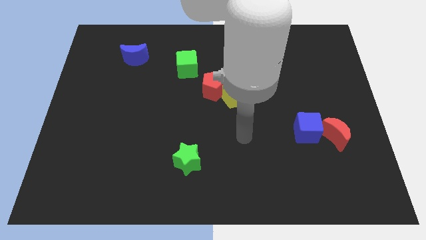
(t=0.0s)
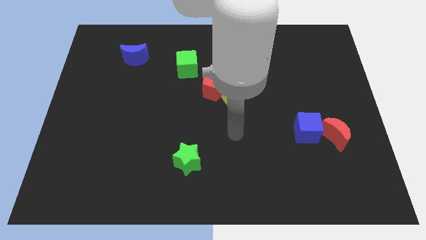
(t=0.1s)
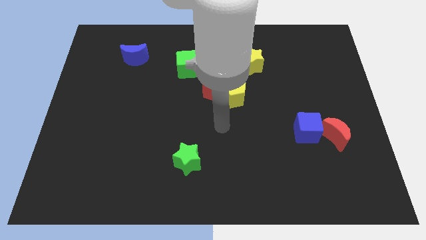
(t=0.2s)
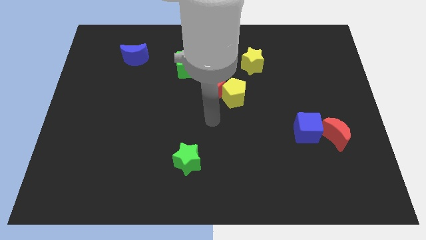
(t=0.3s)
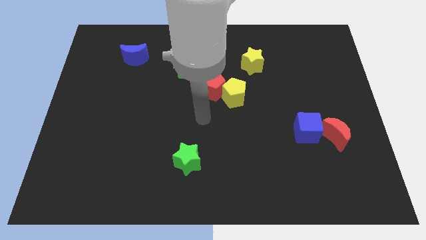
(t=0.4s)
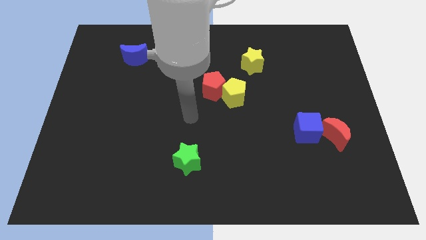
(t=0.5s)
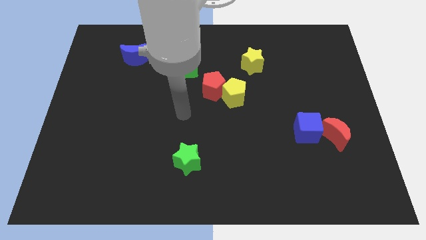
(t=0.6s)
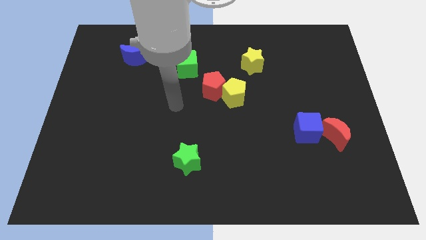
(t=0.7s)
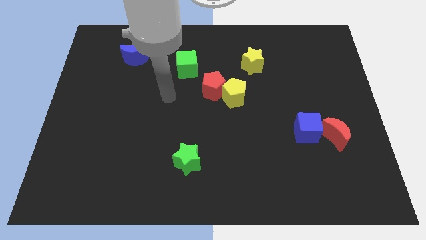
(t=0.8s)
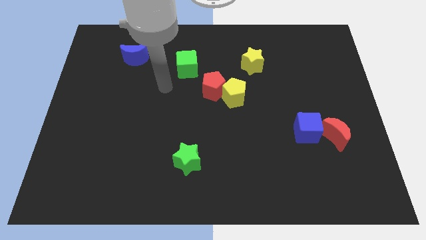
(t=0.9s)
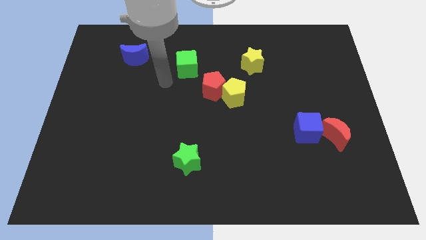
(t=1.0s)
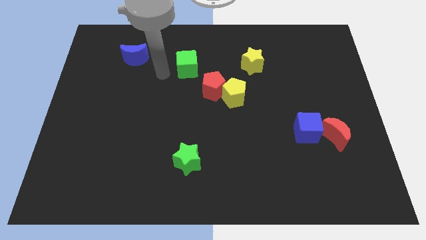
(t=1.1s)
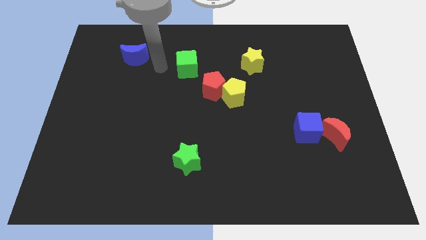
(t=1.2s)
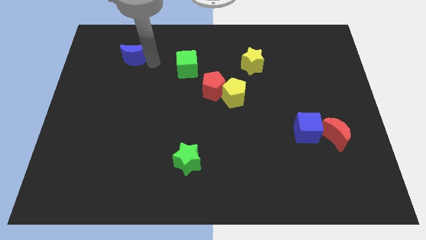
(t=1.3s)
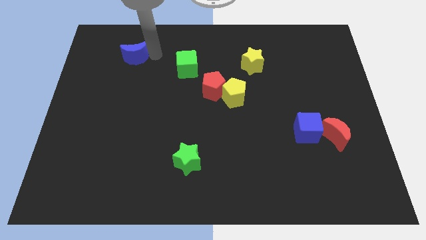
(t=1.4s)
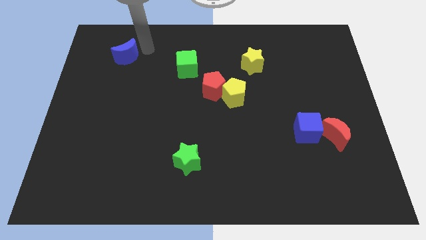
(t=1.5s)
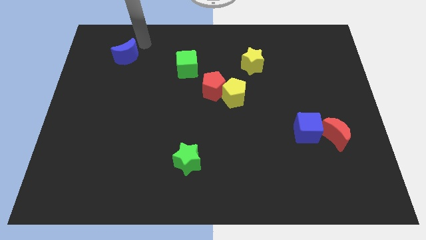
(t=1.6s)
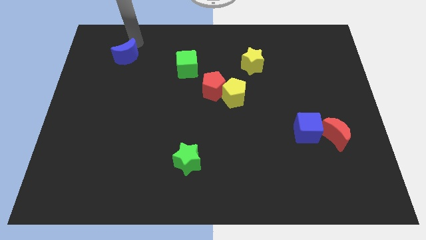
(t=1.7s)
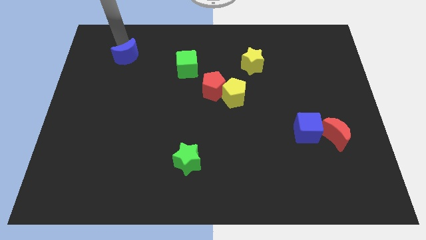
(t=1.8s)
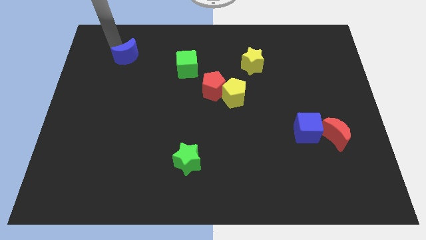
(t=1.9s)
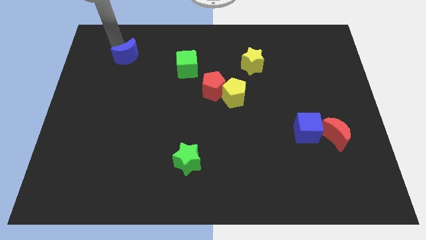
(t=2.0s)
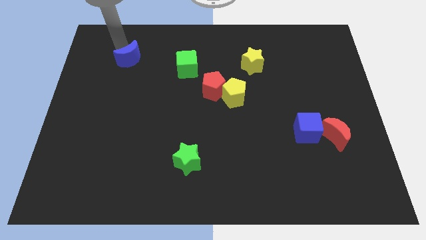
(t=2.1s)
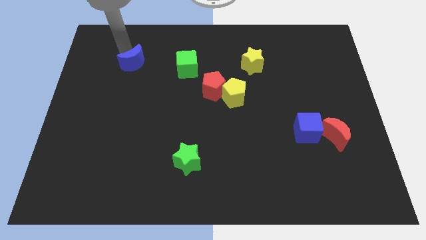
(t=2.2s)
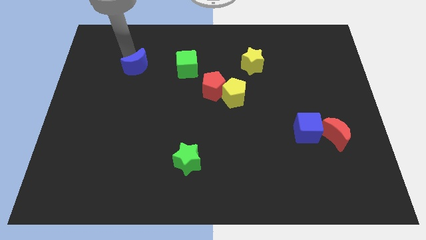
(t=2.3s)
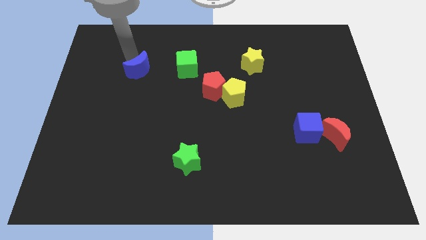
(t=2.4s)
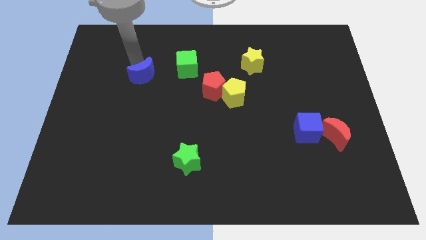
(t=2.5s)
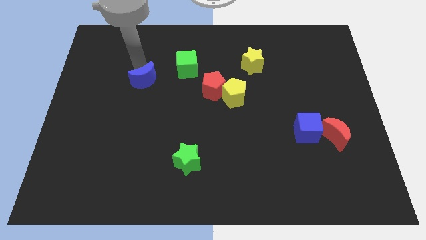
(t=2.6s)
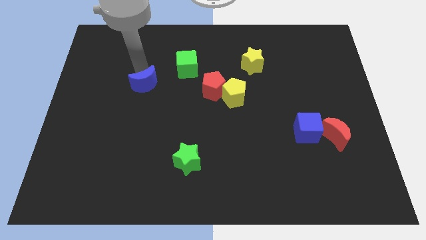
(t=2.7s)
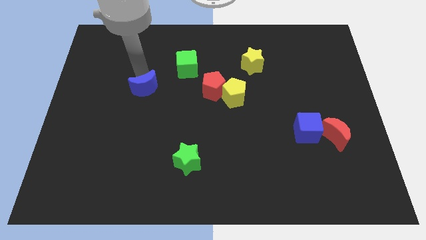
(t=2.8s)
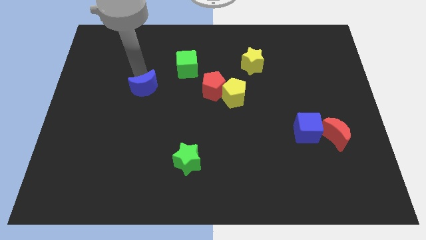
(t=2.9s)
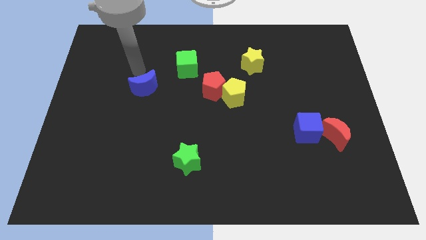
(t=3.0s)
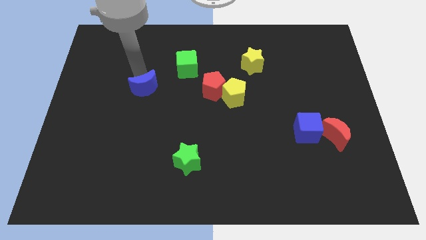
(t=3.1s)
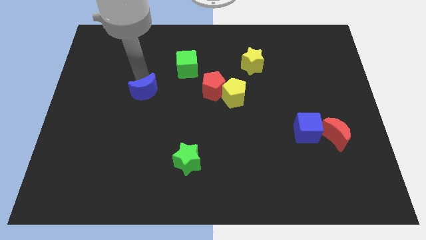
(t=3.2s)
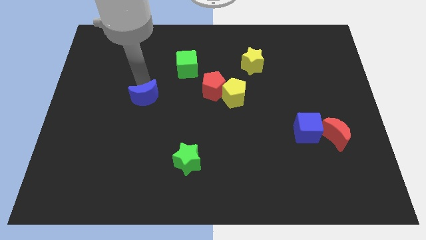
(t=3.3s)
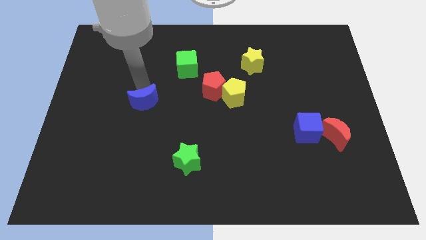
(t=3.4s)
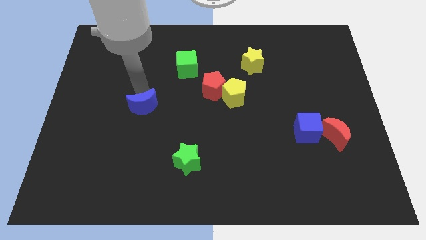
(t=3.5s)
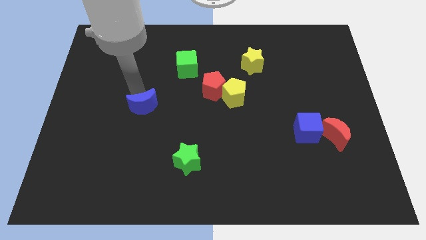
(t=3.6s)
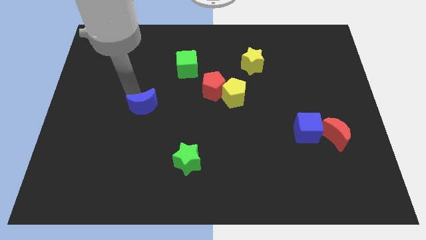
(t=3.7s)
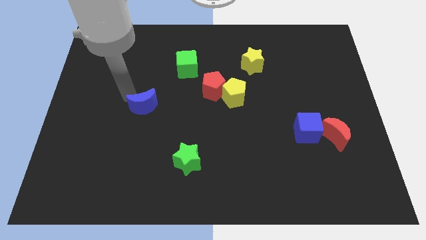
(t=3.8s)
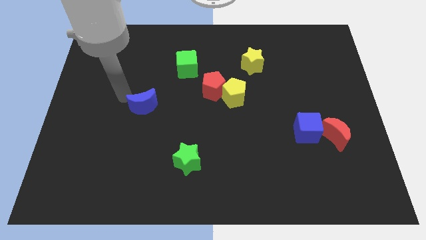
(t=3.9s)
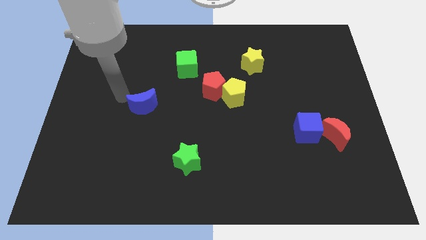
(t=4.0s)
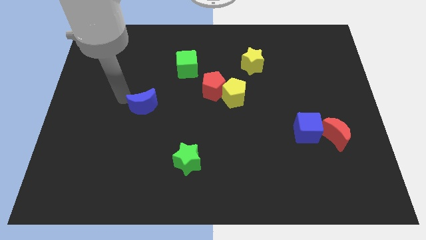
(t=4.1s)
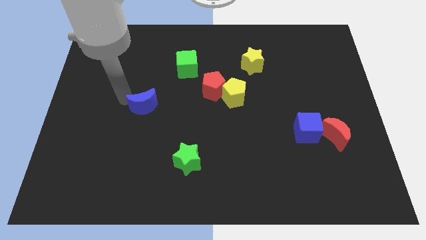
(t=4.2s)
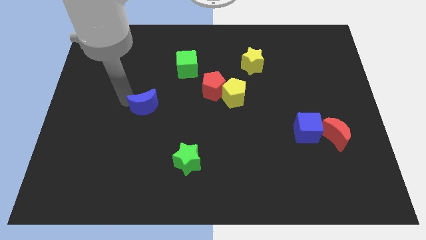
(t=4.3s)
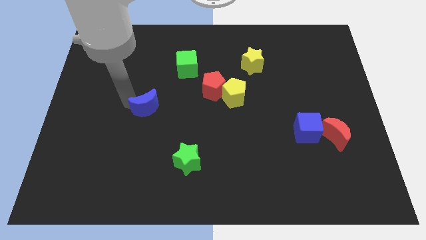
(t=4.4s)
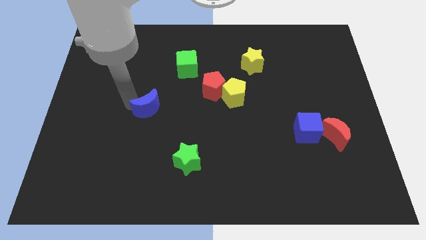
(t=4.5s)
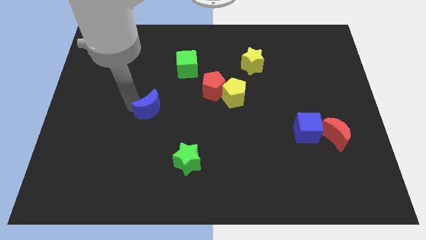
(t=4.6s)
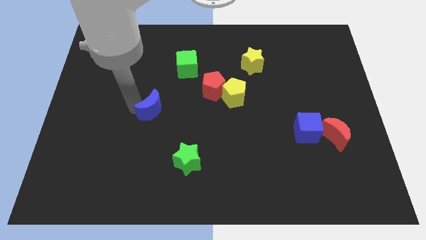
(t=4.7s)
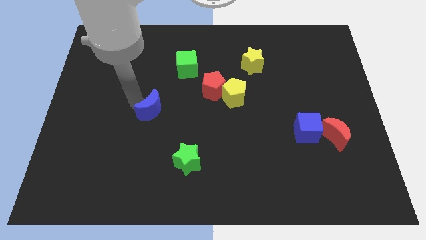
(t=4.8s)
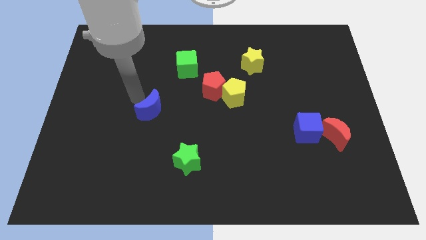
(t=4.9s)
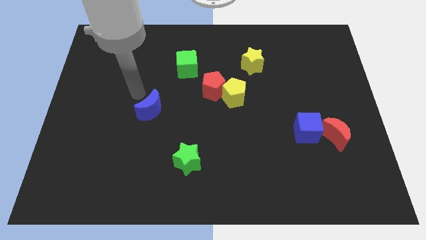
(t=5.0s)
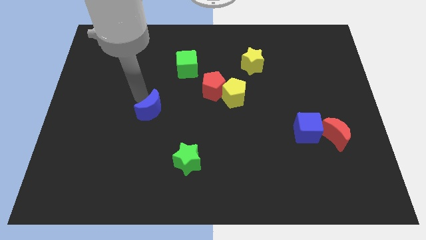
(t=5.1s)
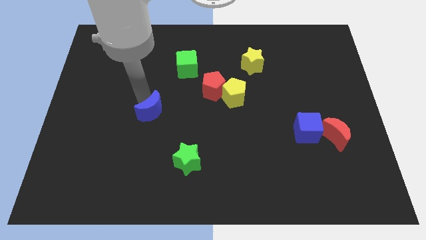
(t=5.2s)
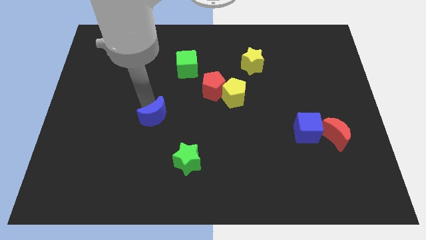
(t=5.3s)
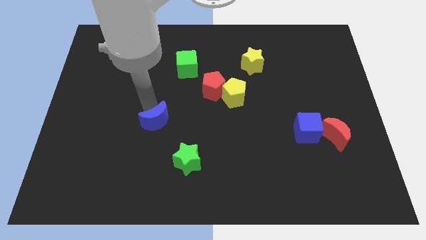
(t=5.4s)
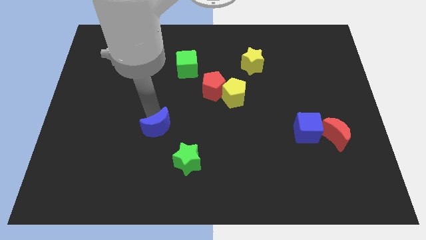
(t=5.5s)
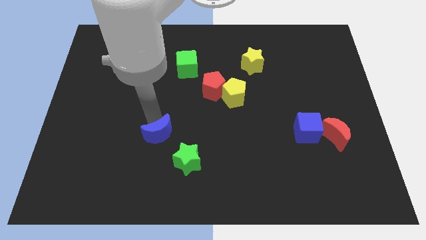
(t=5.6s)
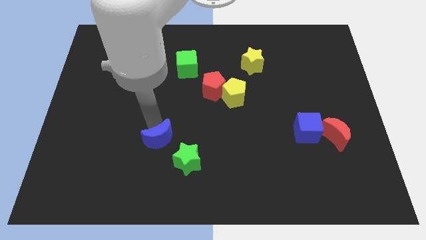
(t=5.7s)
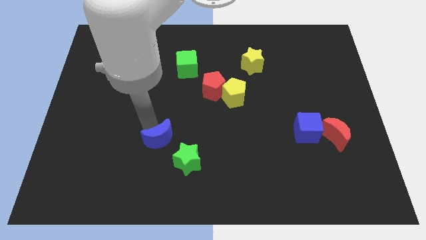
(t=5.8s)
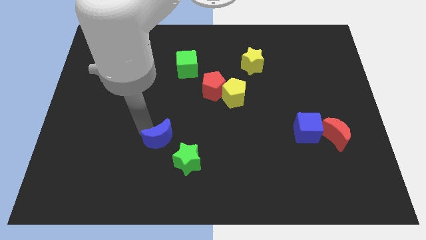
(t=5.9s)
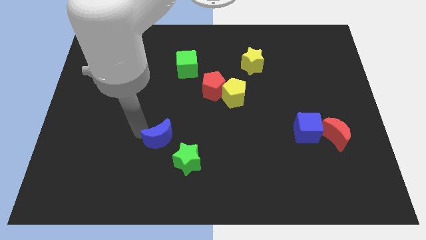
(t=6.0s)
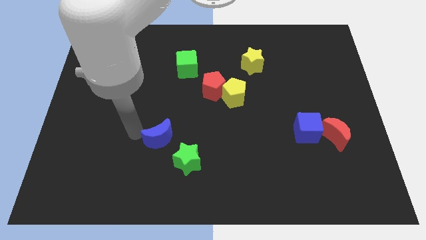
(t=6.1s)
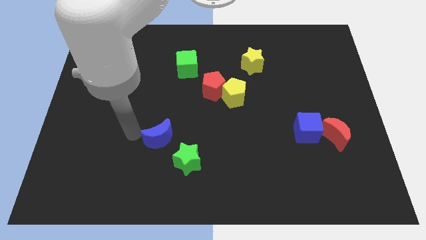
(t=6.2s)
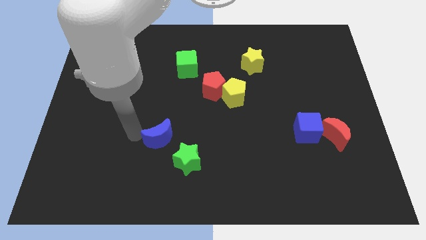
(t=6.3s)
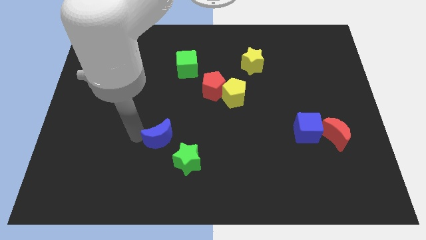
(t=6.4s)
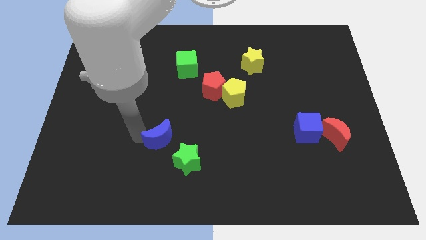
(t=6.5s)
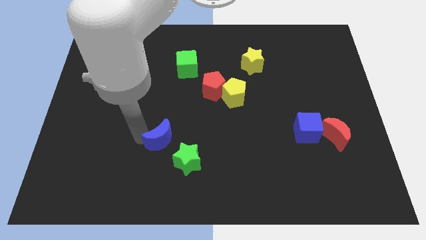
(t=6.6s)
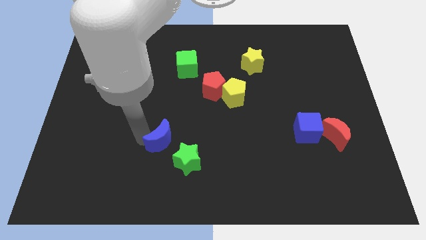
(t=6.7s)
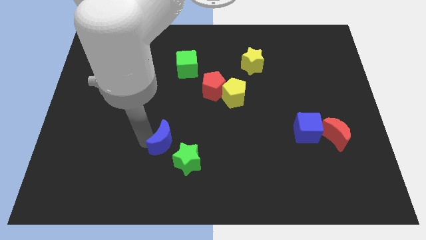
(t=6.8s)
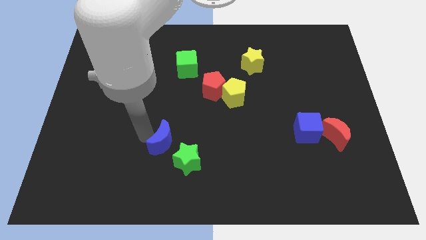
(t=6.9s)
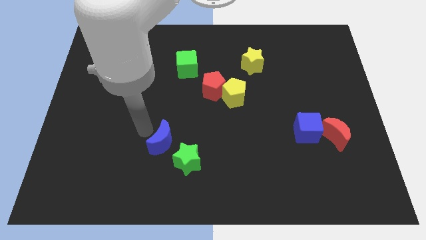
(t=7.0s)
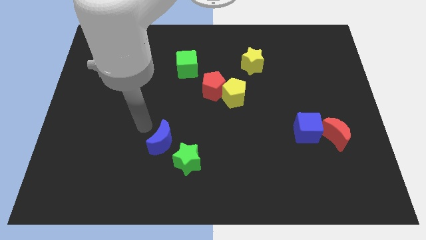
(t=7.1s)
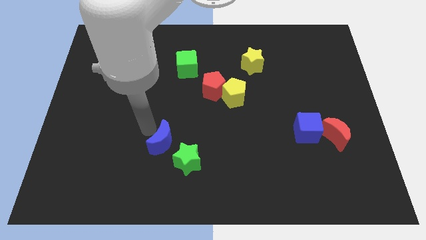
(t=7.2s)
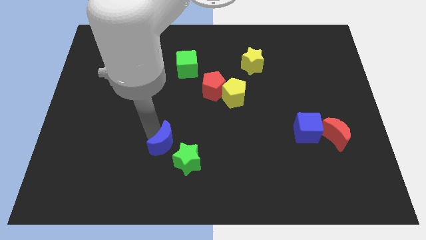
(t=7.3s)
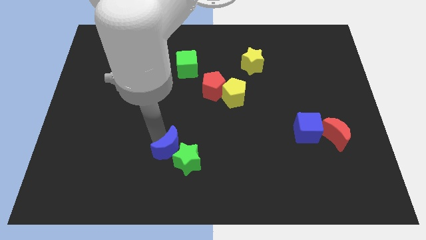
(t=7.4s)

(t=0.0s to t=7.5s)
push the blue moon next to the green star

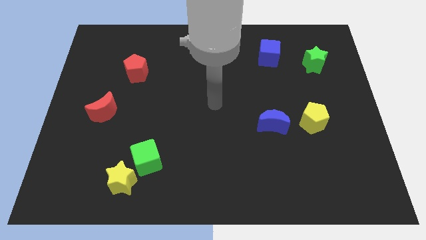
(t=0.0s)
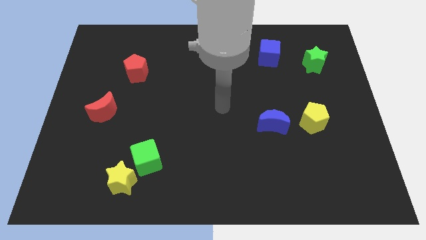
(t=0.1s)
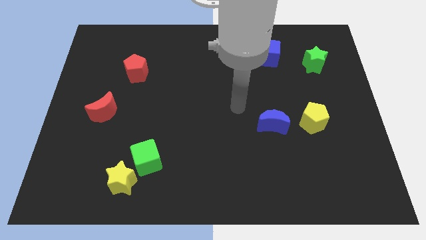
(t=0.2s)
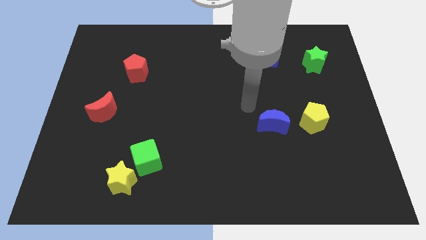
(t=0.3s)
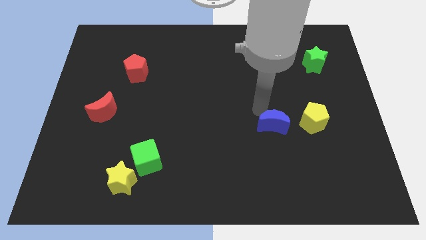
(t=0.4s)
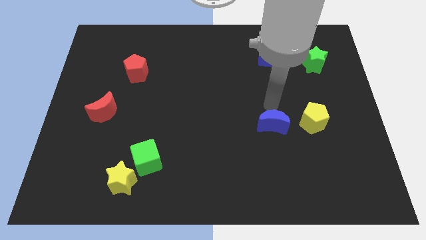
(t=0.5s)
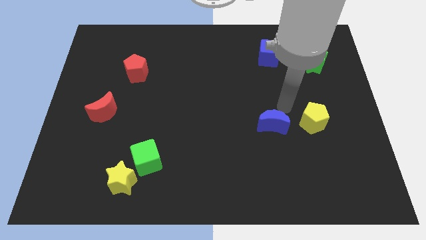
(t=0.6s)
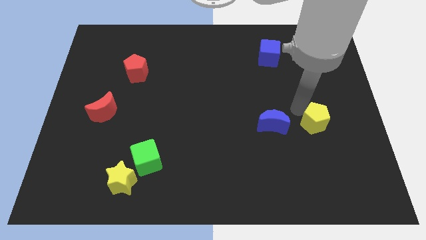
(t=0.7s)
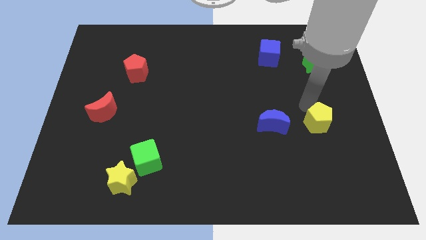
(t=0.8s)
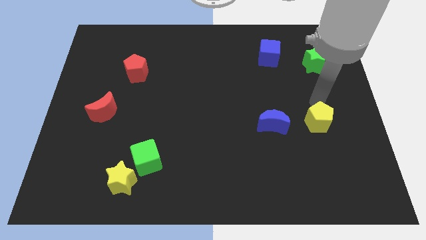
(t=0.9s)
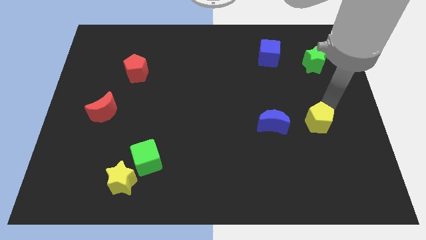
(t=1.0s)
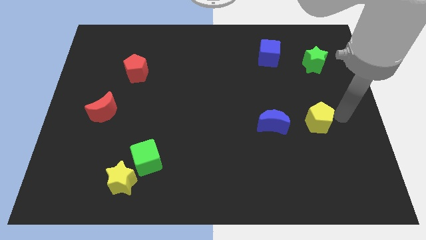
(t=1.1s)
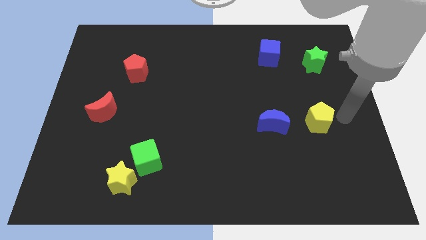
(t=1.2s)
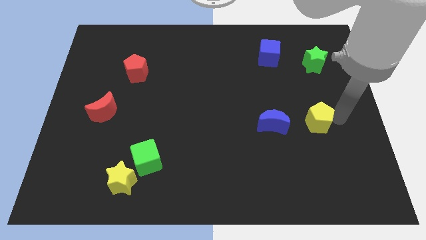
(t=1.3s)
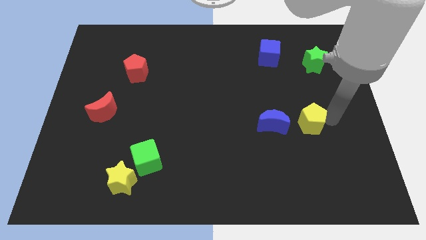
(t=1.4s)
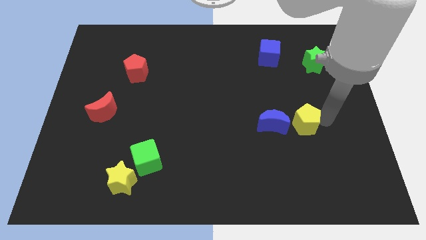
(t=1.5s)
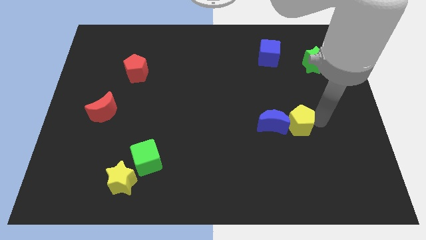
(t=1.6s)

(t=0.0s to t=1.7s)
slide the yellow pentagon to the blue moon
